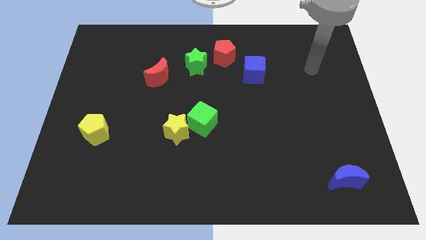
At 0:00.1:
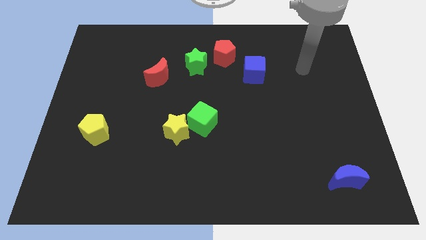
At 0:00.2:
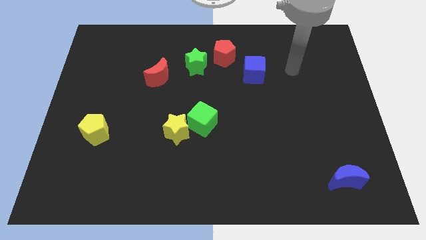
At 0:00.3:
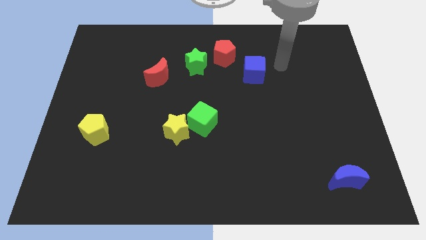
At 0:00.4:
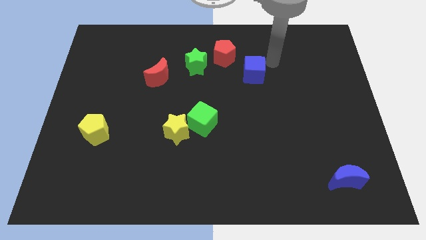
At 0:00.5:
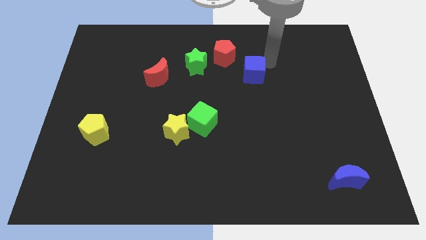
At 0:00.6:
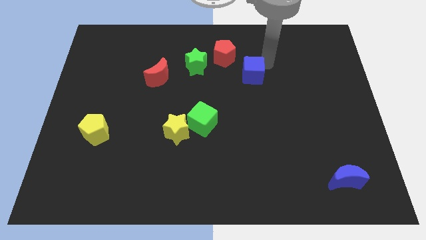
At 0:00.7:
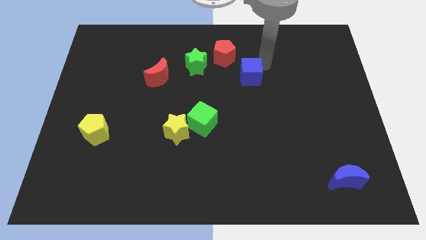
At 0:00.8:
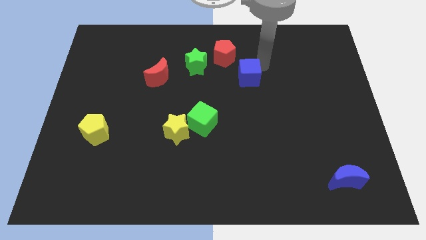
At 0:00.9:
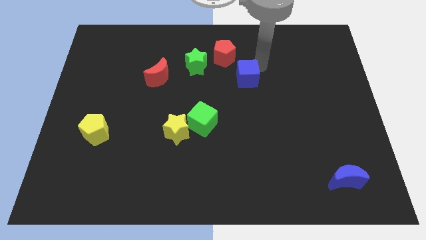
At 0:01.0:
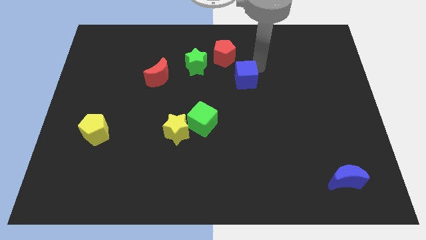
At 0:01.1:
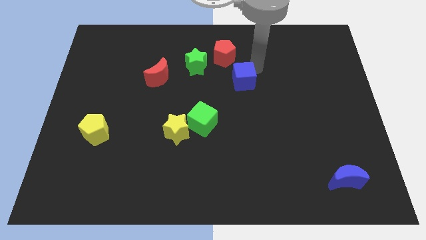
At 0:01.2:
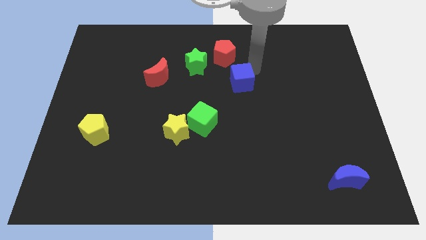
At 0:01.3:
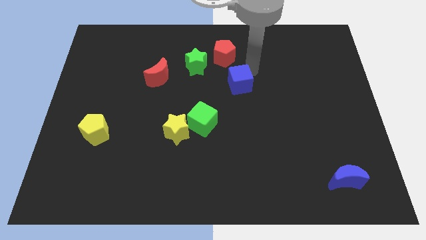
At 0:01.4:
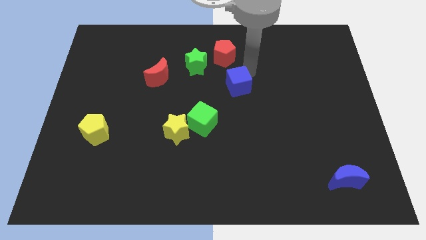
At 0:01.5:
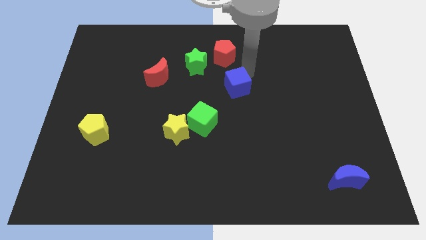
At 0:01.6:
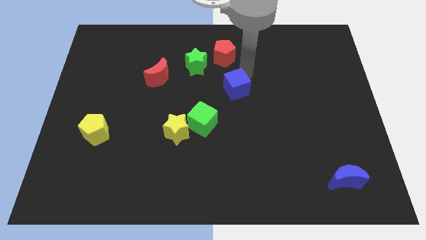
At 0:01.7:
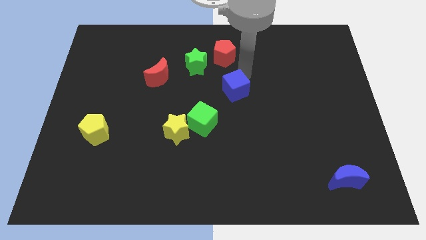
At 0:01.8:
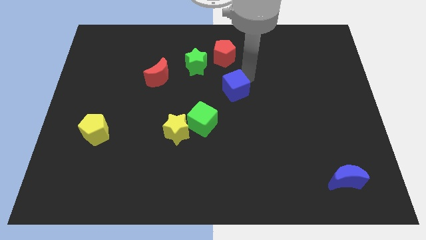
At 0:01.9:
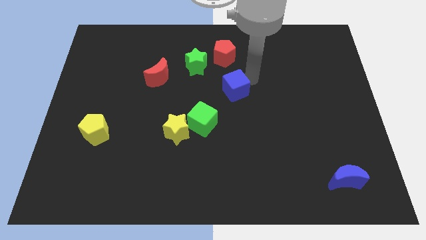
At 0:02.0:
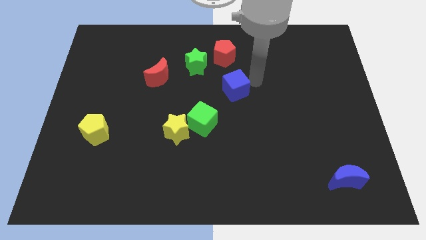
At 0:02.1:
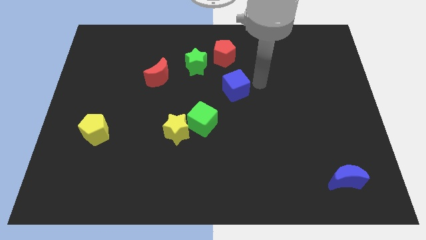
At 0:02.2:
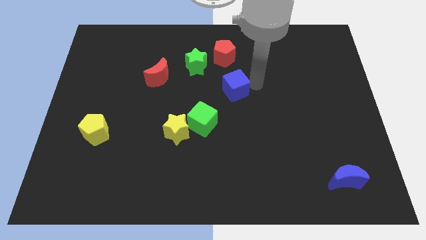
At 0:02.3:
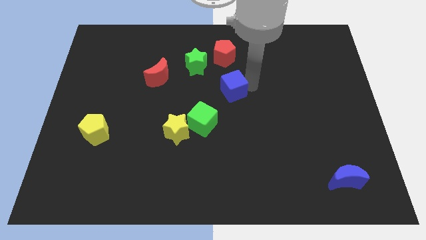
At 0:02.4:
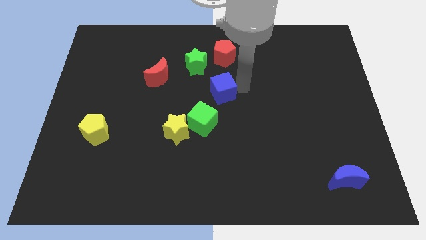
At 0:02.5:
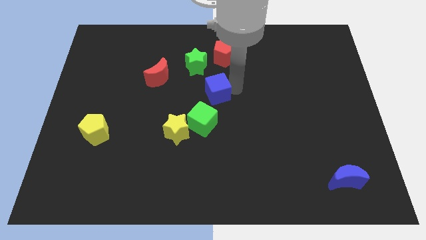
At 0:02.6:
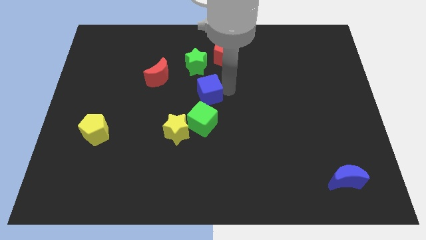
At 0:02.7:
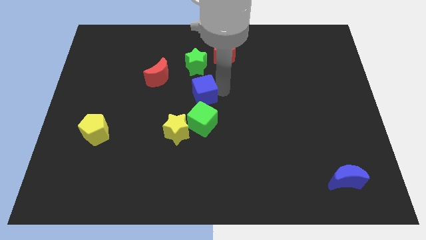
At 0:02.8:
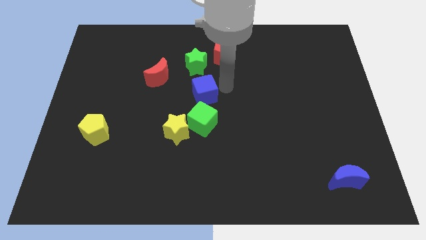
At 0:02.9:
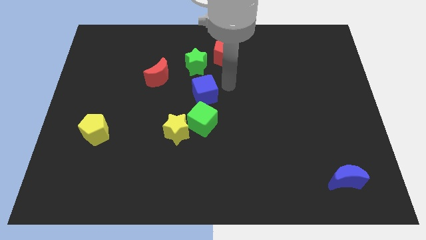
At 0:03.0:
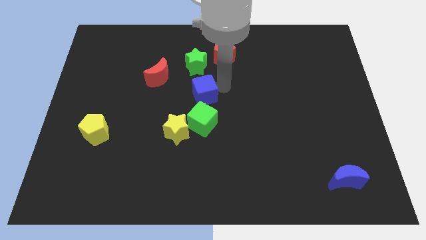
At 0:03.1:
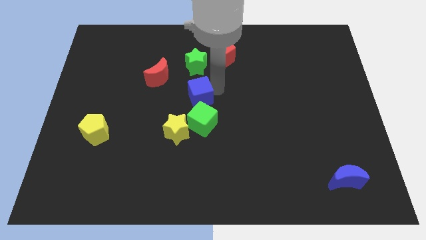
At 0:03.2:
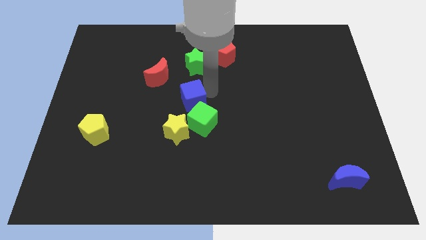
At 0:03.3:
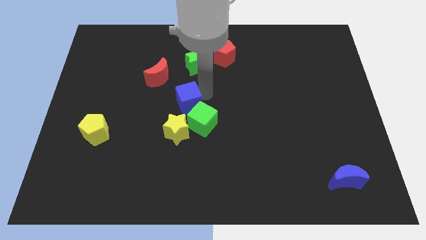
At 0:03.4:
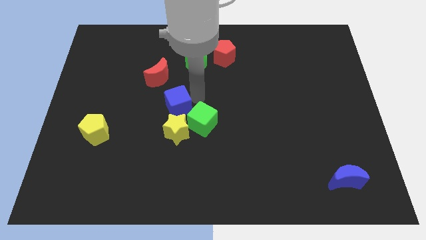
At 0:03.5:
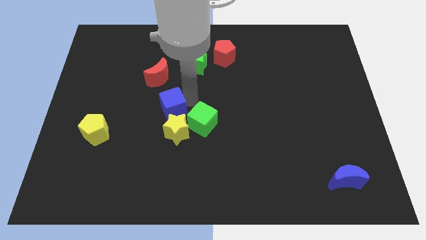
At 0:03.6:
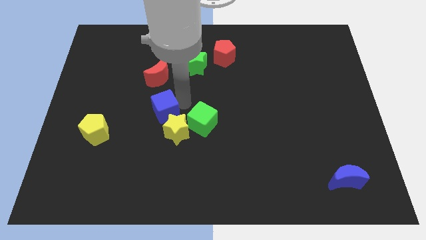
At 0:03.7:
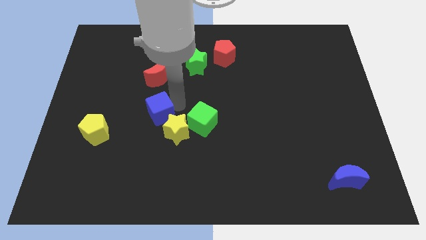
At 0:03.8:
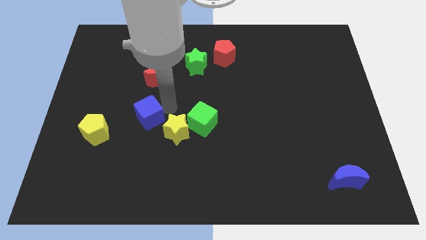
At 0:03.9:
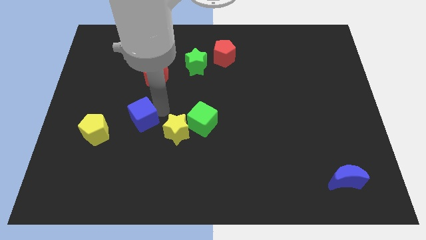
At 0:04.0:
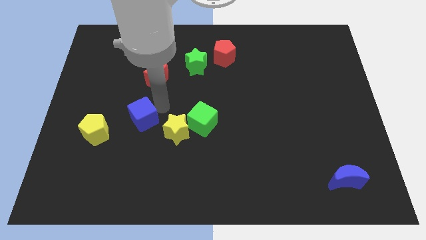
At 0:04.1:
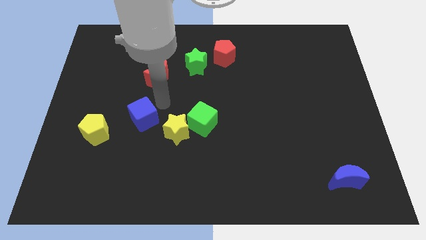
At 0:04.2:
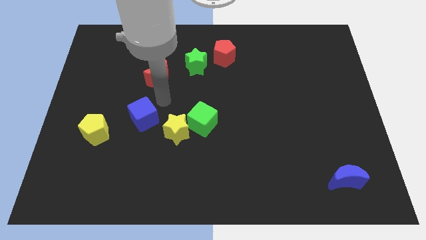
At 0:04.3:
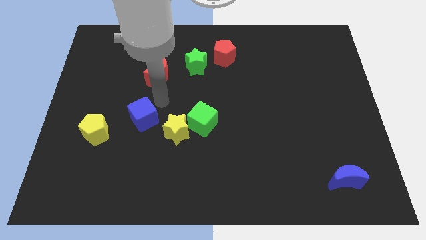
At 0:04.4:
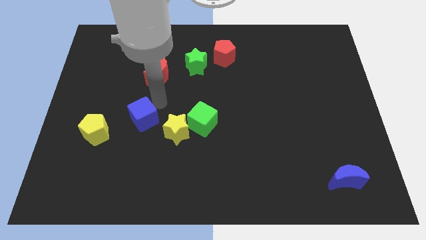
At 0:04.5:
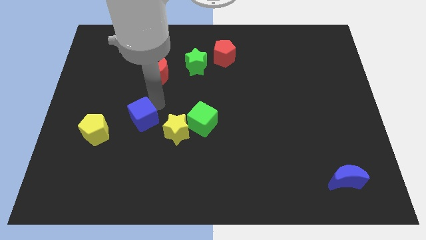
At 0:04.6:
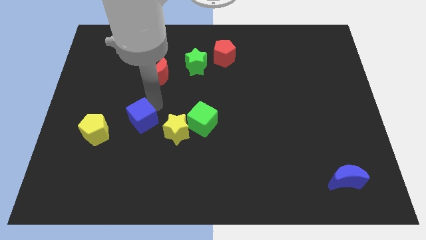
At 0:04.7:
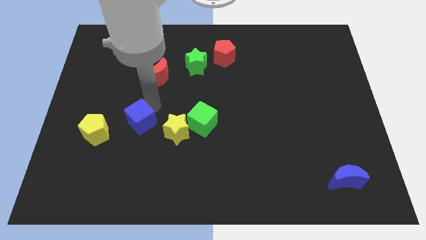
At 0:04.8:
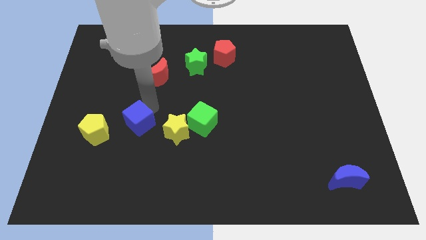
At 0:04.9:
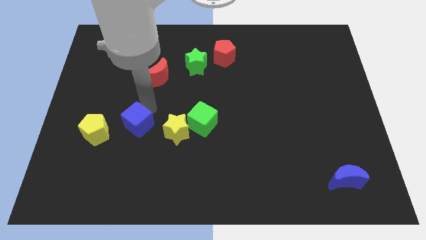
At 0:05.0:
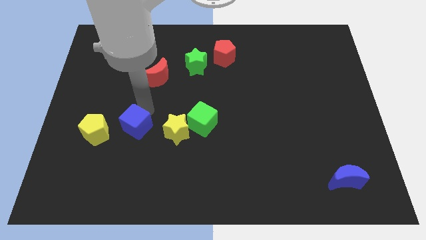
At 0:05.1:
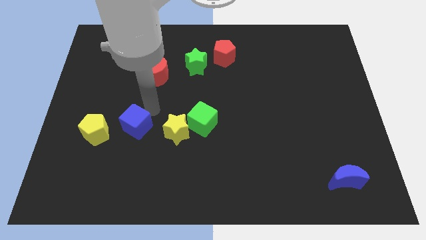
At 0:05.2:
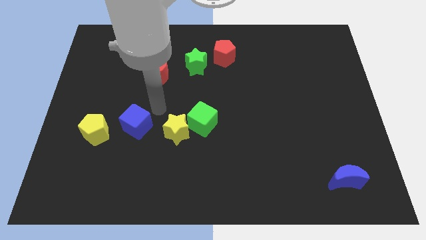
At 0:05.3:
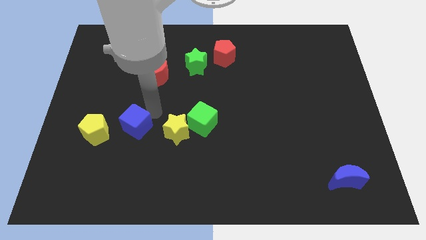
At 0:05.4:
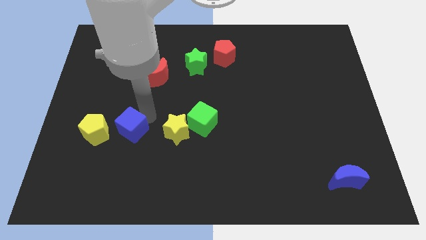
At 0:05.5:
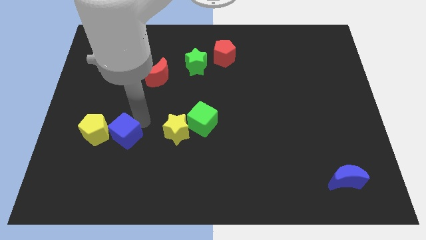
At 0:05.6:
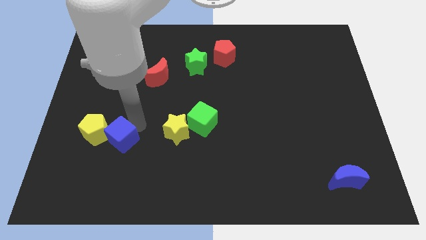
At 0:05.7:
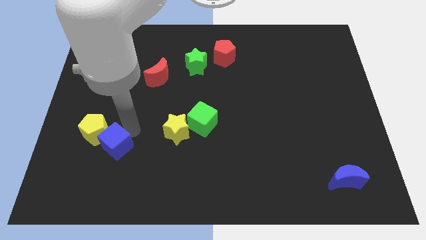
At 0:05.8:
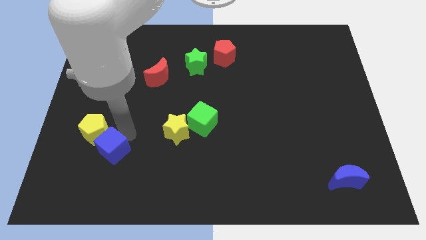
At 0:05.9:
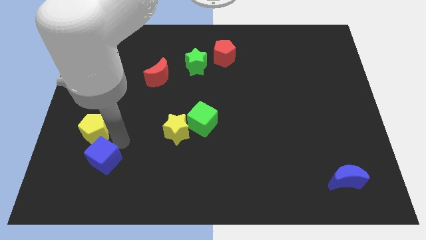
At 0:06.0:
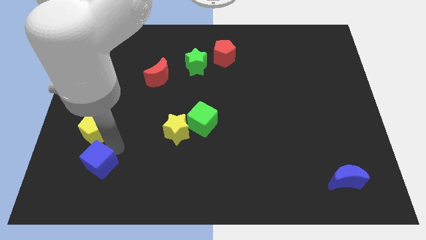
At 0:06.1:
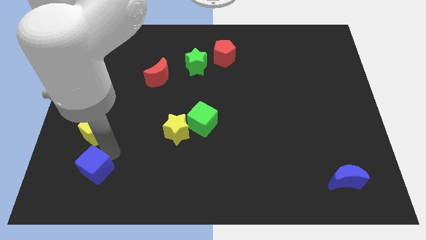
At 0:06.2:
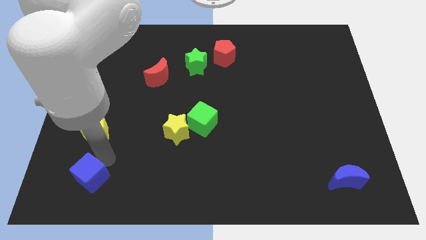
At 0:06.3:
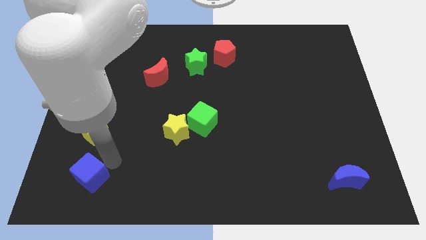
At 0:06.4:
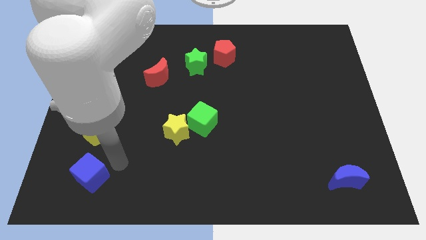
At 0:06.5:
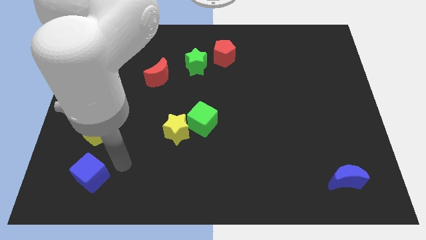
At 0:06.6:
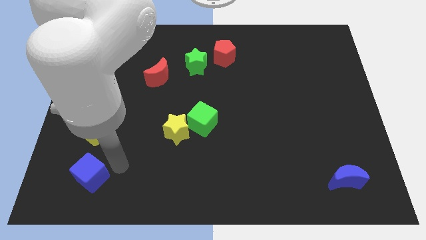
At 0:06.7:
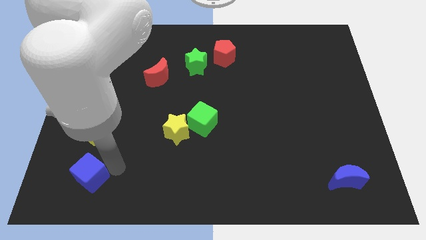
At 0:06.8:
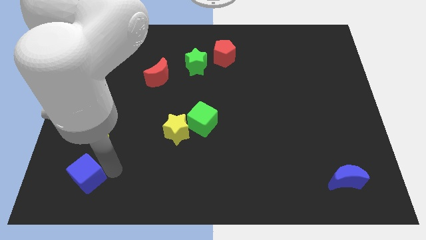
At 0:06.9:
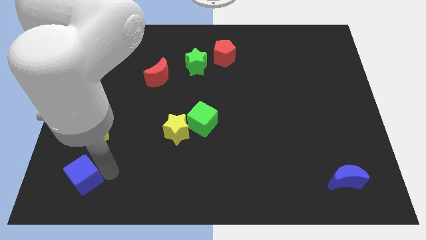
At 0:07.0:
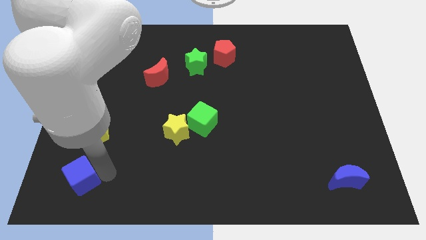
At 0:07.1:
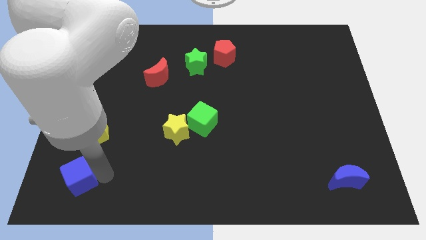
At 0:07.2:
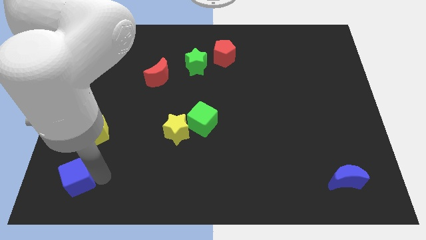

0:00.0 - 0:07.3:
push the blue cube to the bottom left of the board
